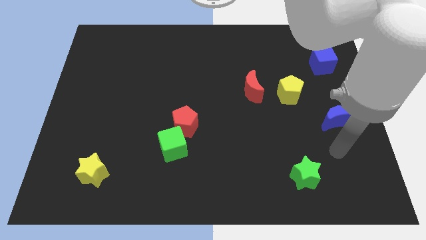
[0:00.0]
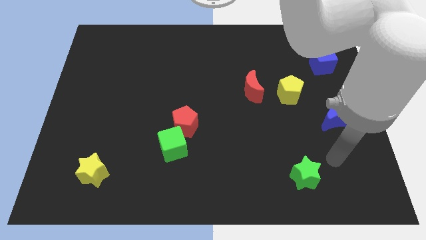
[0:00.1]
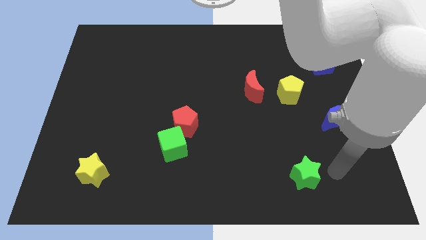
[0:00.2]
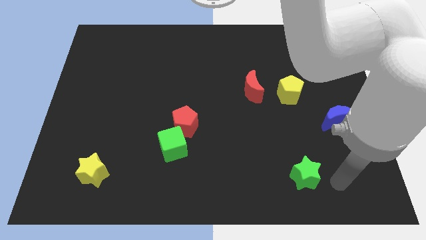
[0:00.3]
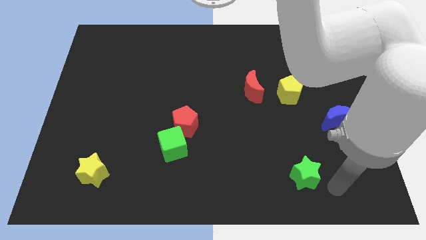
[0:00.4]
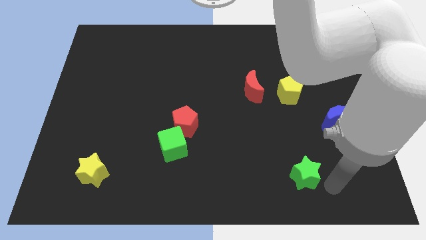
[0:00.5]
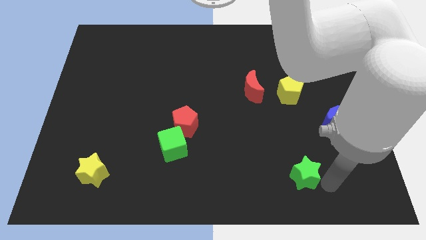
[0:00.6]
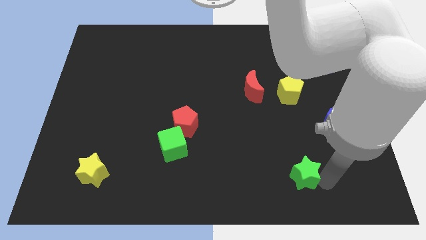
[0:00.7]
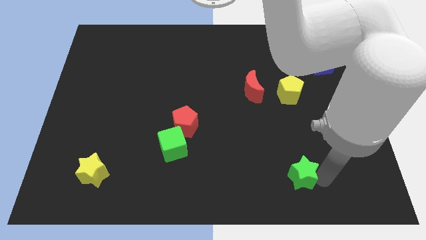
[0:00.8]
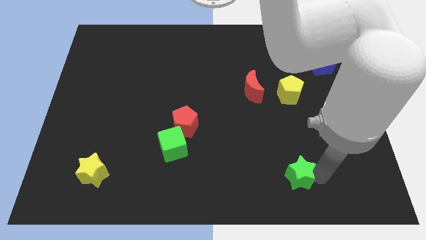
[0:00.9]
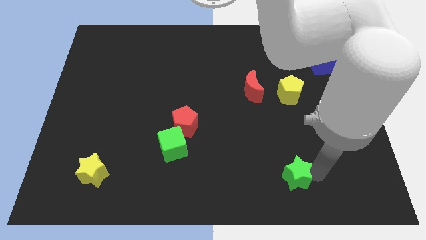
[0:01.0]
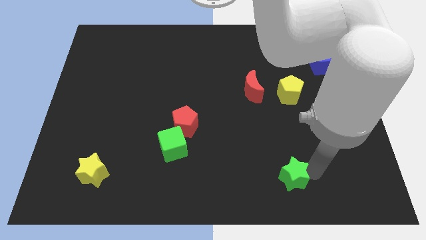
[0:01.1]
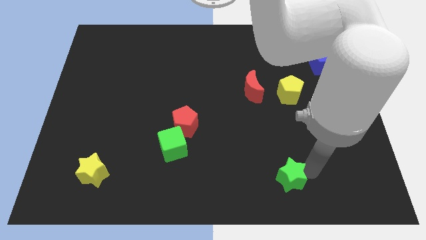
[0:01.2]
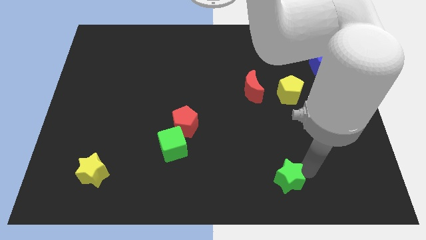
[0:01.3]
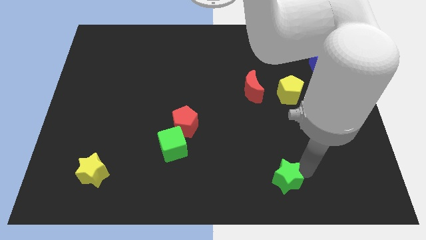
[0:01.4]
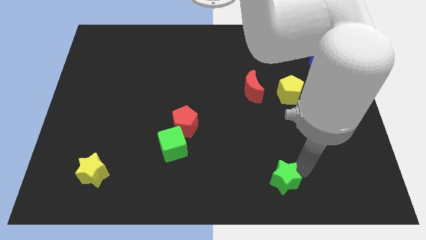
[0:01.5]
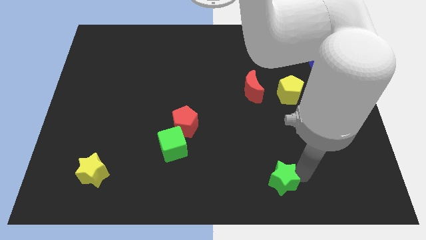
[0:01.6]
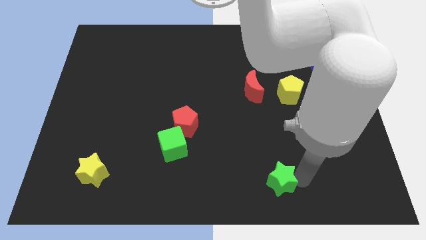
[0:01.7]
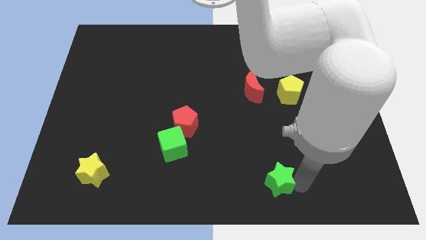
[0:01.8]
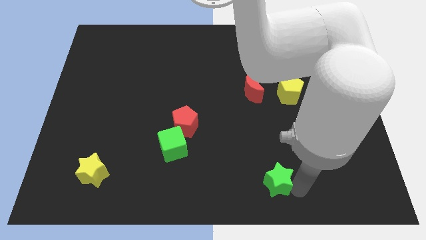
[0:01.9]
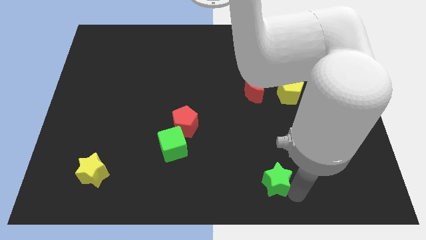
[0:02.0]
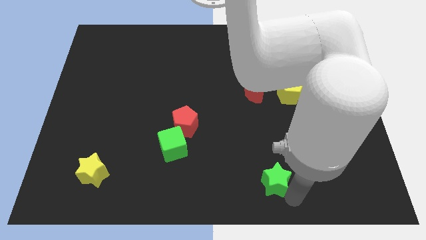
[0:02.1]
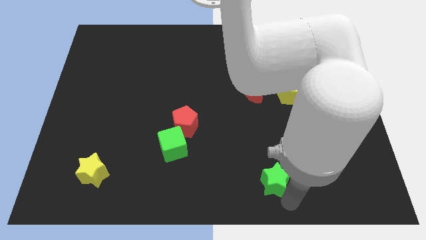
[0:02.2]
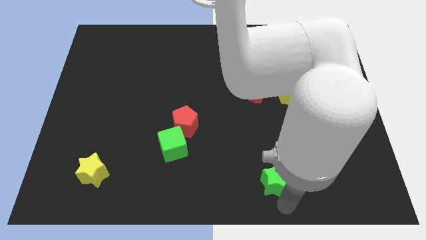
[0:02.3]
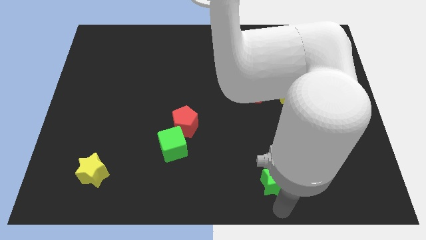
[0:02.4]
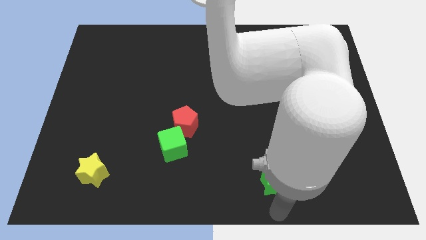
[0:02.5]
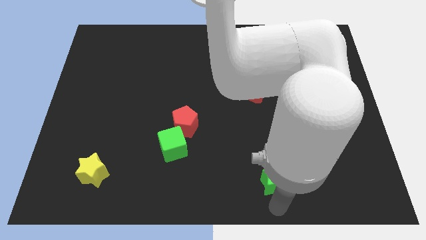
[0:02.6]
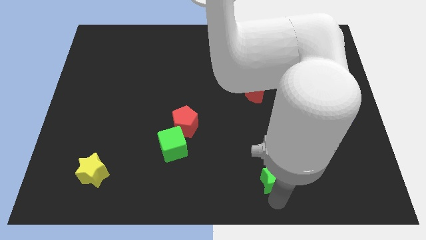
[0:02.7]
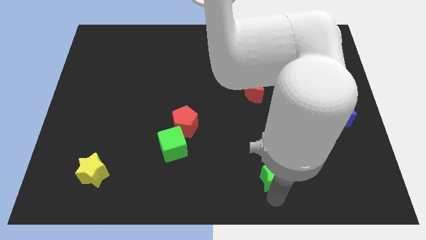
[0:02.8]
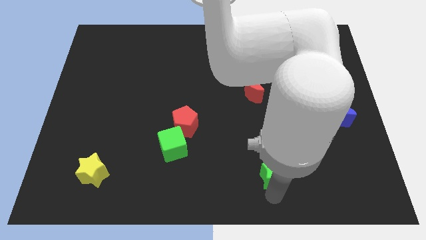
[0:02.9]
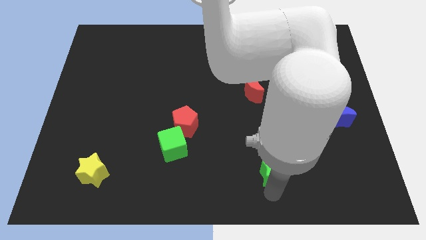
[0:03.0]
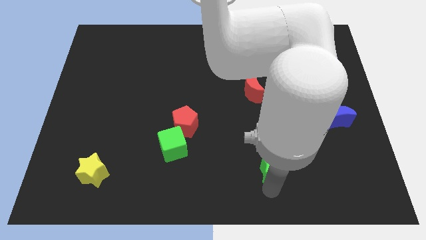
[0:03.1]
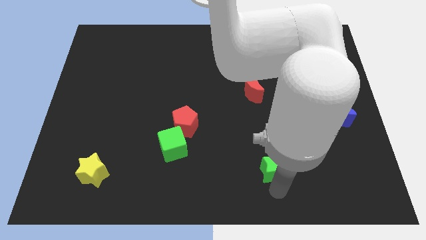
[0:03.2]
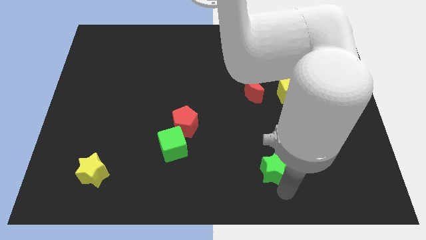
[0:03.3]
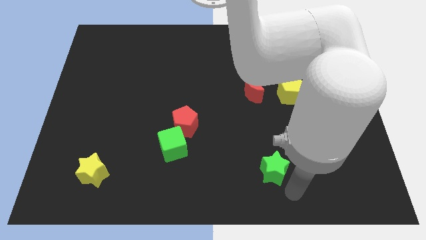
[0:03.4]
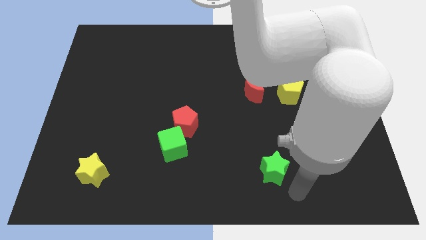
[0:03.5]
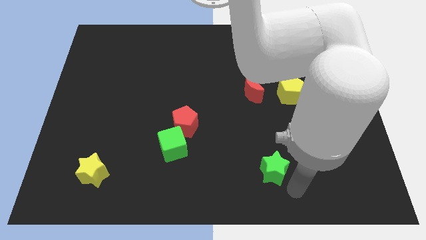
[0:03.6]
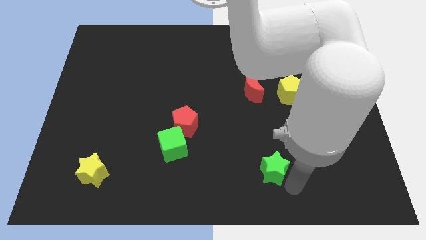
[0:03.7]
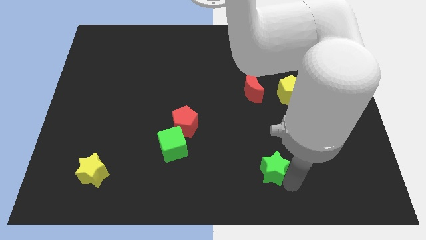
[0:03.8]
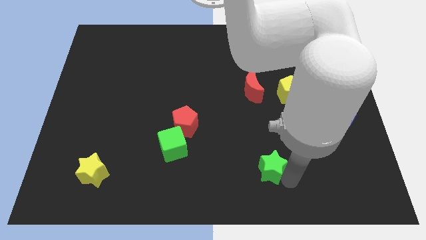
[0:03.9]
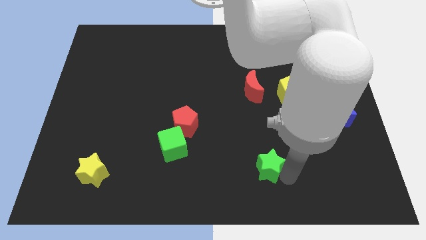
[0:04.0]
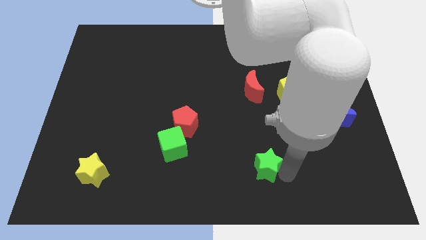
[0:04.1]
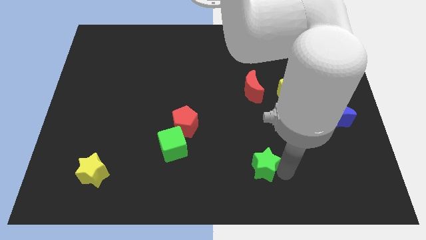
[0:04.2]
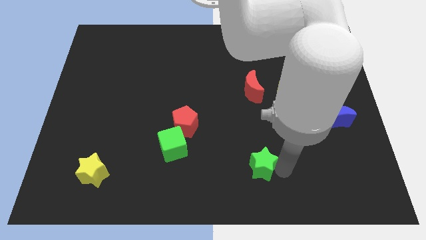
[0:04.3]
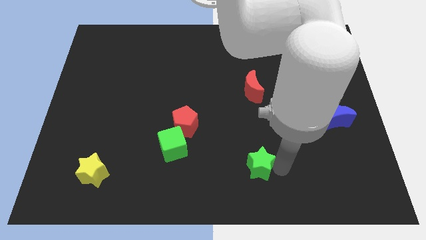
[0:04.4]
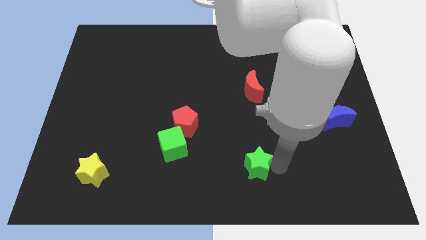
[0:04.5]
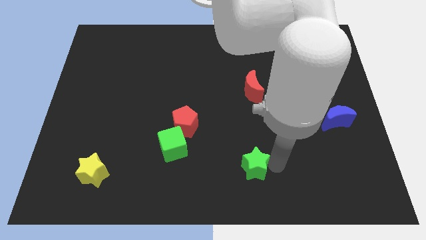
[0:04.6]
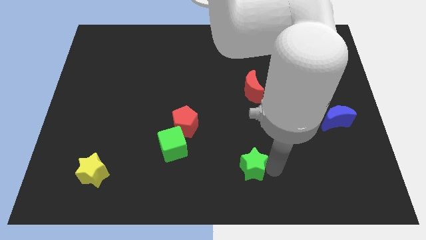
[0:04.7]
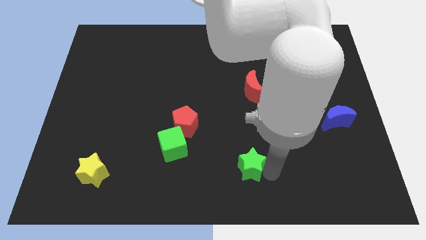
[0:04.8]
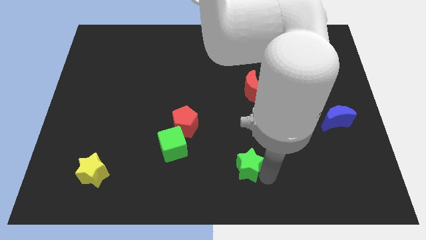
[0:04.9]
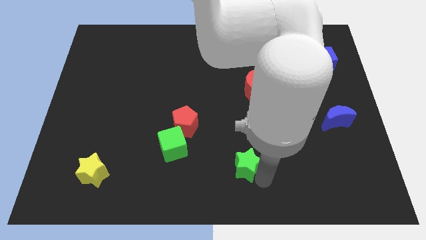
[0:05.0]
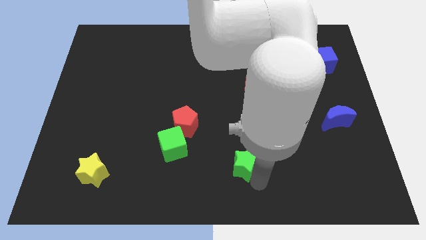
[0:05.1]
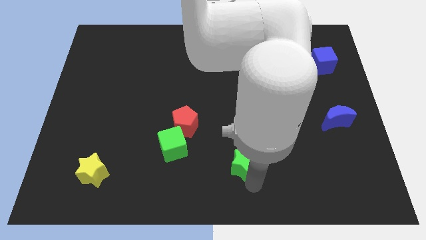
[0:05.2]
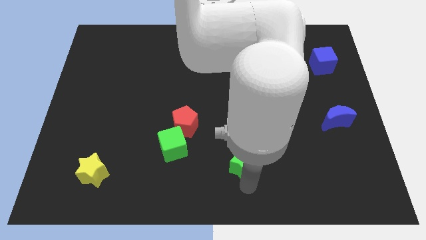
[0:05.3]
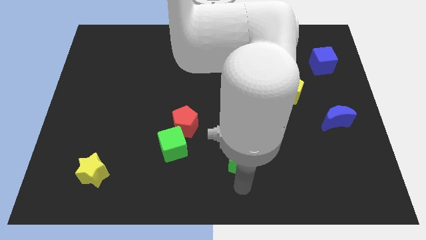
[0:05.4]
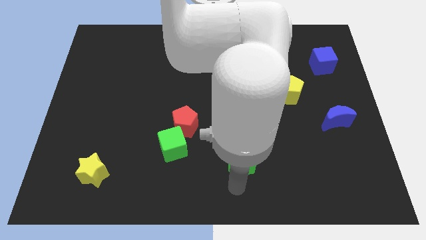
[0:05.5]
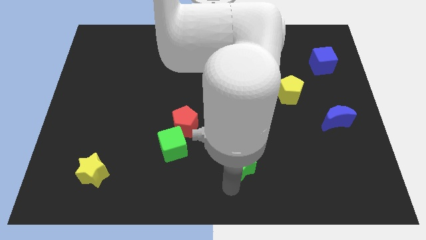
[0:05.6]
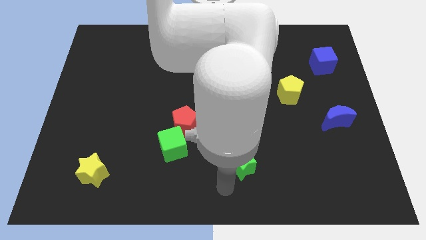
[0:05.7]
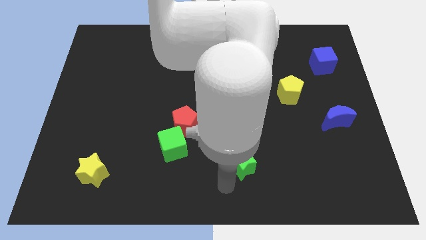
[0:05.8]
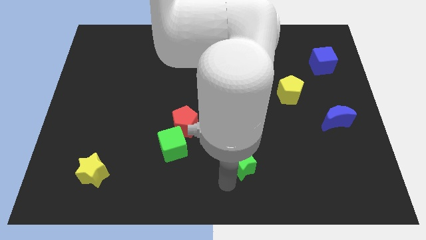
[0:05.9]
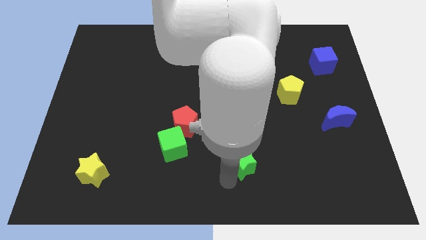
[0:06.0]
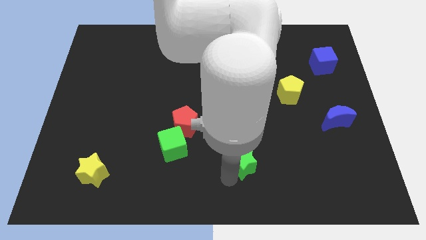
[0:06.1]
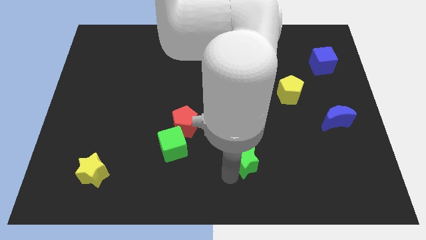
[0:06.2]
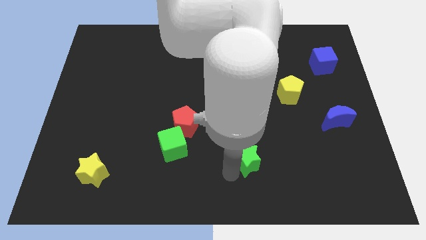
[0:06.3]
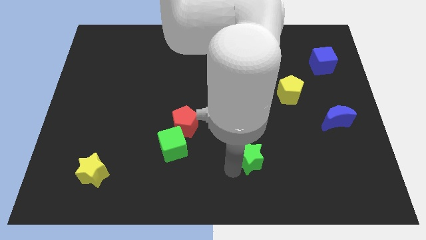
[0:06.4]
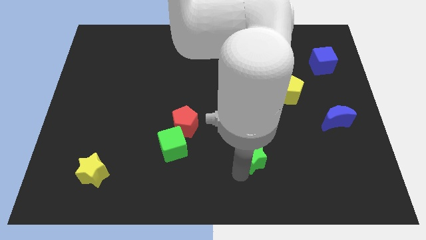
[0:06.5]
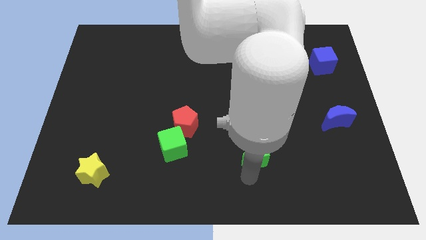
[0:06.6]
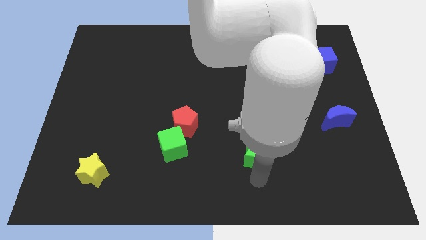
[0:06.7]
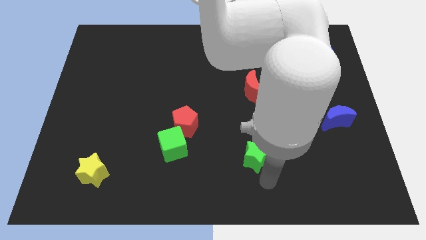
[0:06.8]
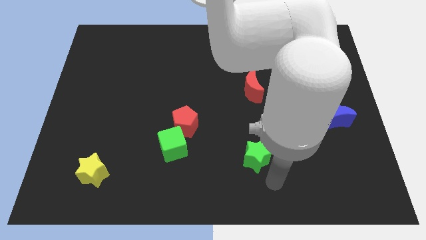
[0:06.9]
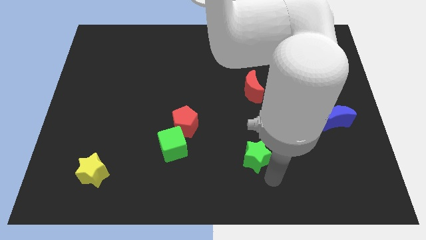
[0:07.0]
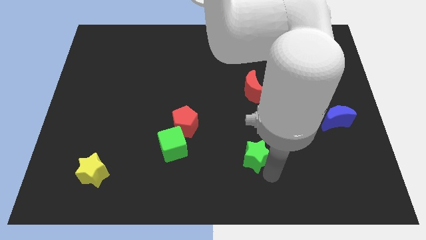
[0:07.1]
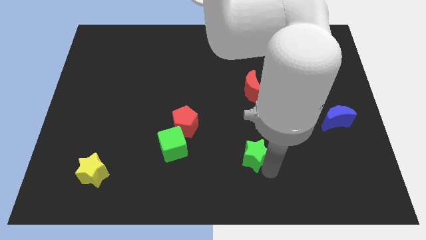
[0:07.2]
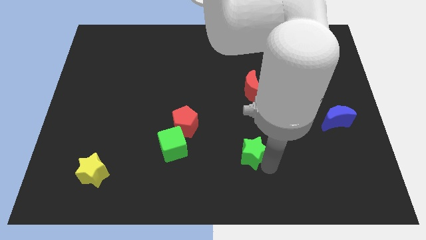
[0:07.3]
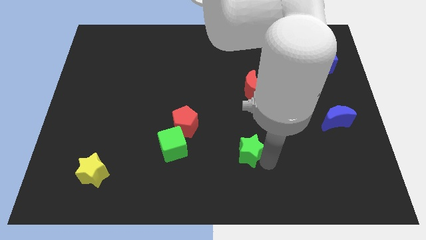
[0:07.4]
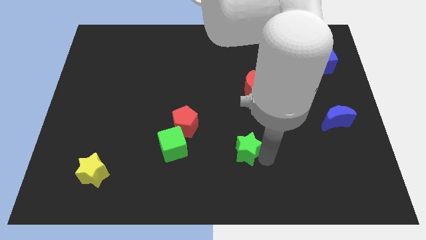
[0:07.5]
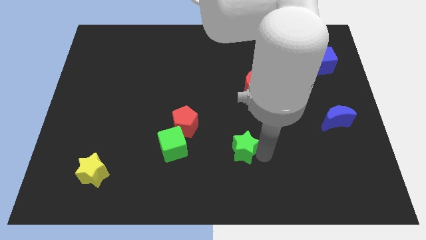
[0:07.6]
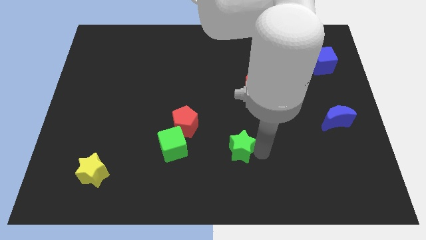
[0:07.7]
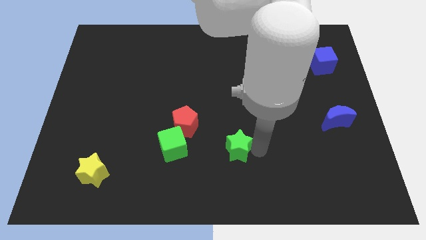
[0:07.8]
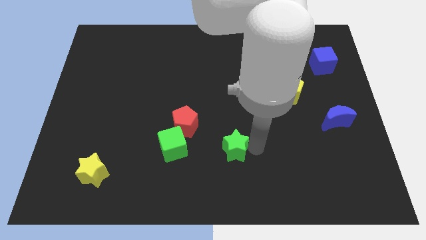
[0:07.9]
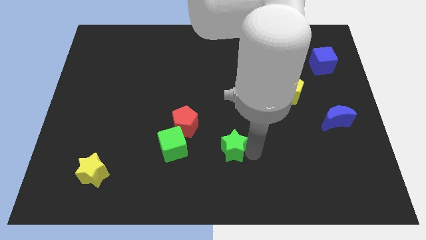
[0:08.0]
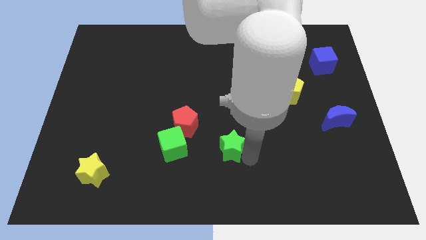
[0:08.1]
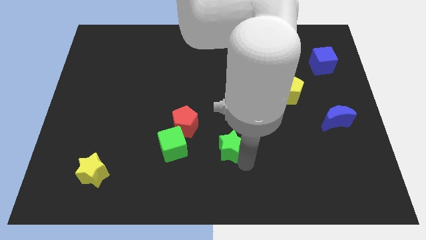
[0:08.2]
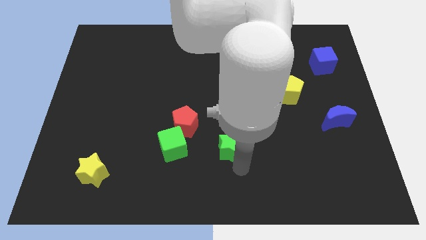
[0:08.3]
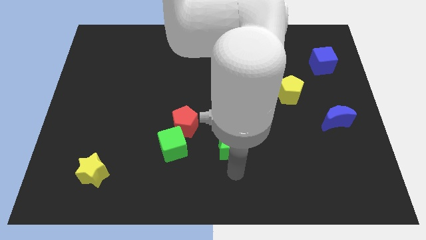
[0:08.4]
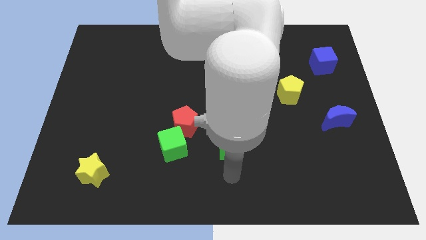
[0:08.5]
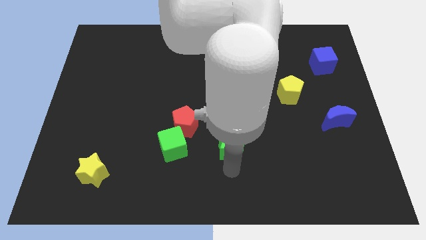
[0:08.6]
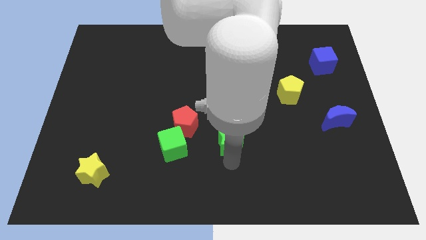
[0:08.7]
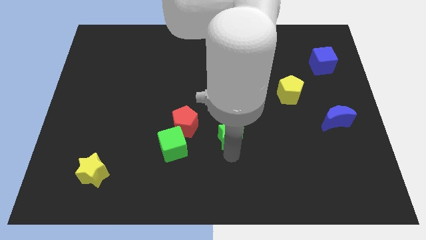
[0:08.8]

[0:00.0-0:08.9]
move the green star to the right side of the red pentagon
